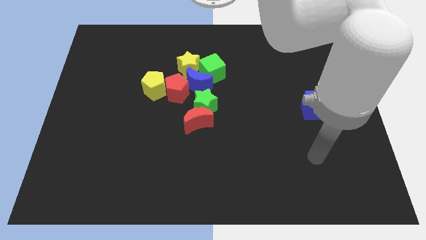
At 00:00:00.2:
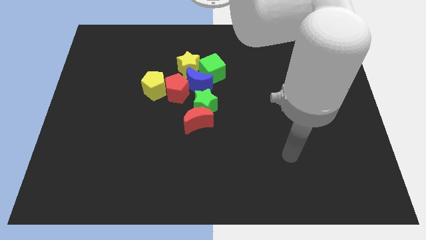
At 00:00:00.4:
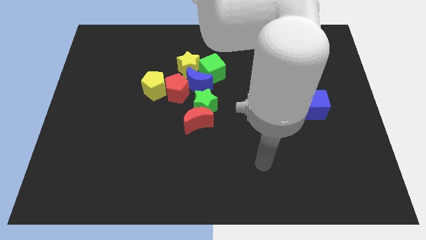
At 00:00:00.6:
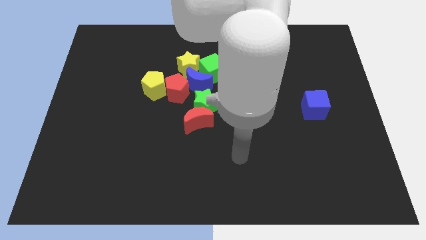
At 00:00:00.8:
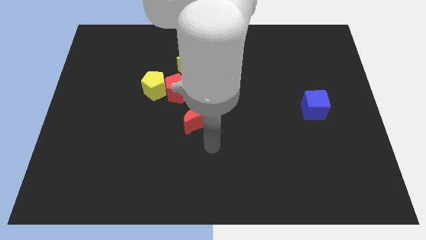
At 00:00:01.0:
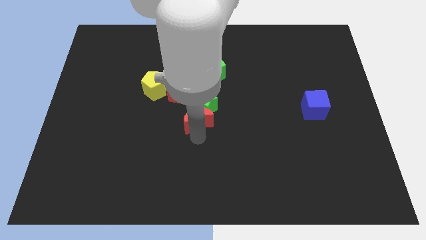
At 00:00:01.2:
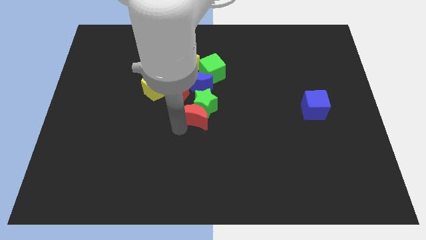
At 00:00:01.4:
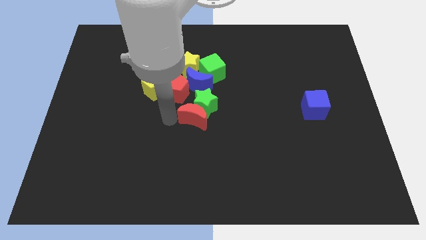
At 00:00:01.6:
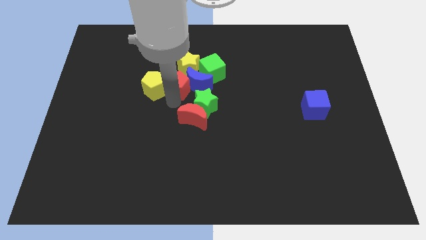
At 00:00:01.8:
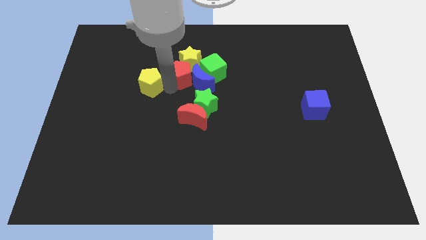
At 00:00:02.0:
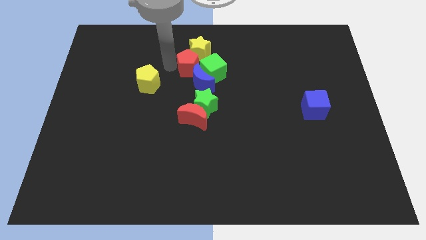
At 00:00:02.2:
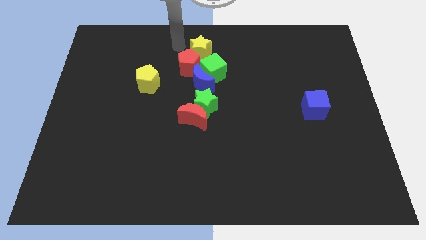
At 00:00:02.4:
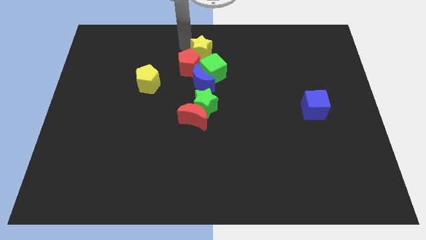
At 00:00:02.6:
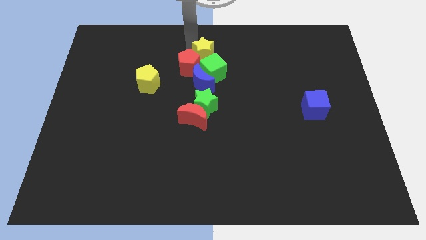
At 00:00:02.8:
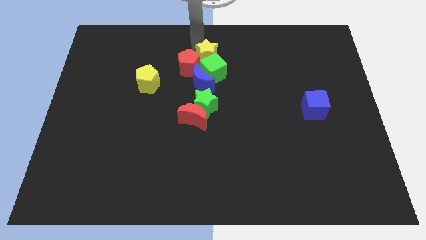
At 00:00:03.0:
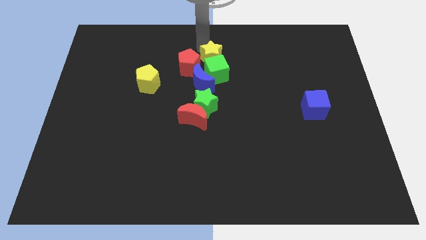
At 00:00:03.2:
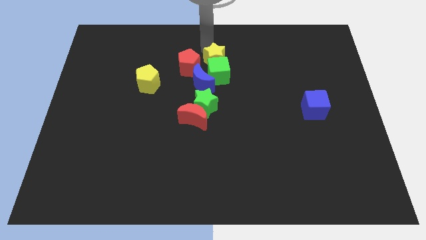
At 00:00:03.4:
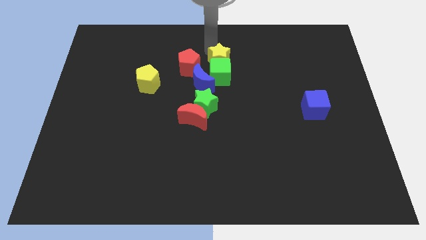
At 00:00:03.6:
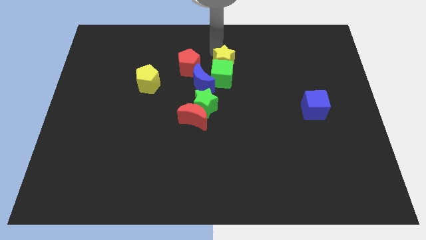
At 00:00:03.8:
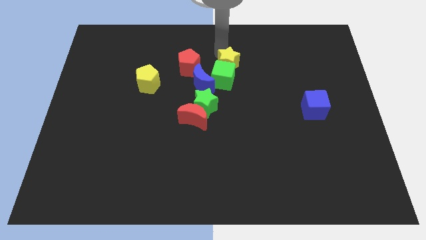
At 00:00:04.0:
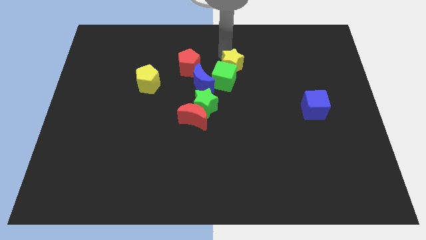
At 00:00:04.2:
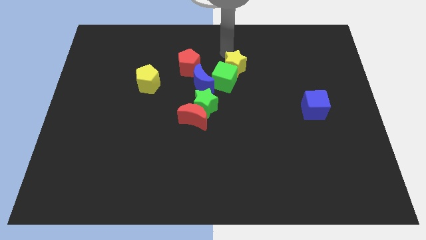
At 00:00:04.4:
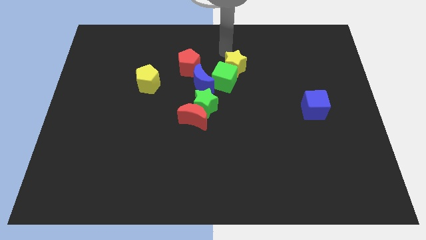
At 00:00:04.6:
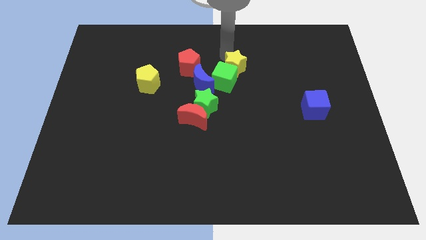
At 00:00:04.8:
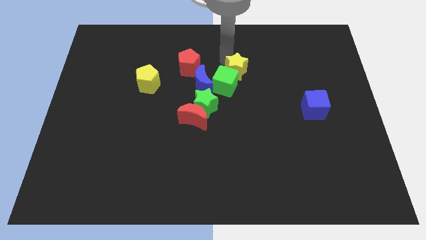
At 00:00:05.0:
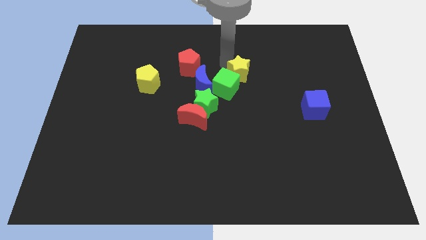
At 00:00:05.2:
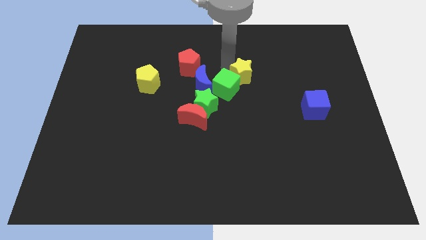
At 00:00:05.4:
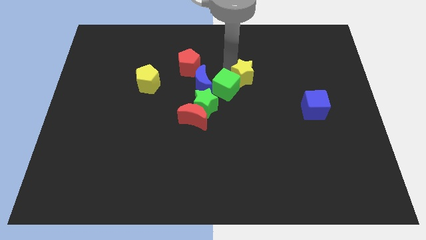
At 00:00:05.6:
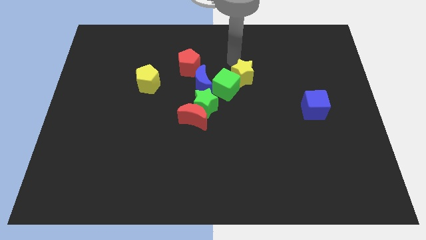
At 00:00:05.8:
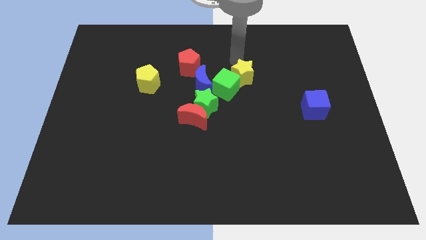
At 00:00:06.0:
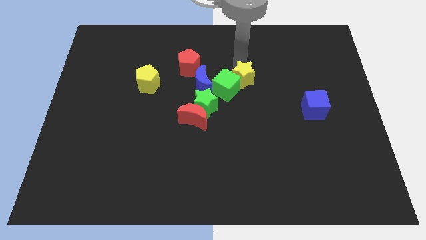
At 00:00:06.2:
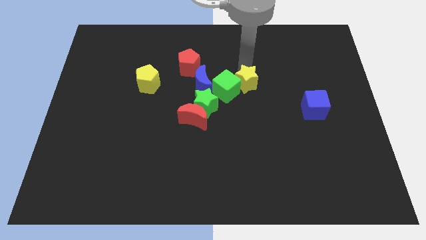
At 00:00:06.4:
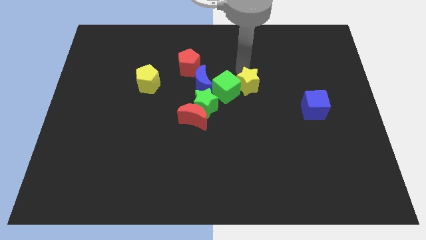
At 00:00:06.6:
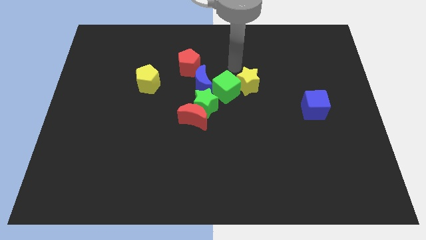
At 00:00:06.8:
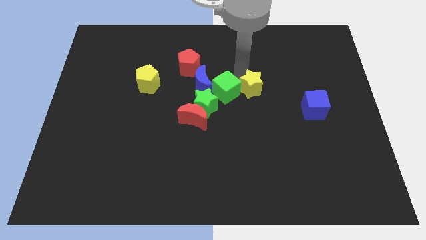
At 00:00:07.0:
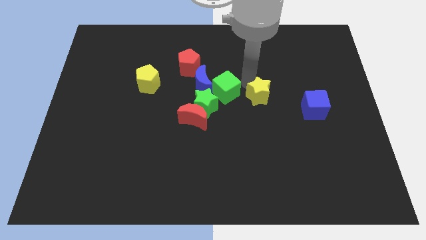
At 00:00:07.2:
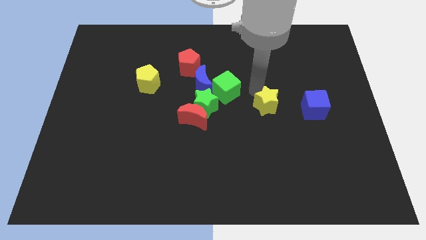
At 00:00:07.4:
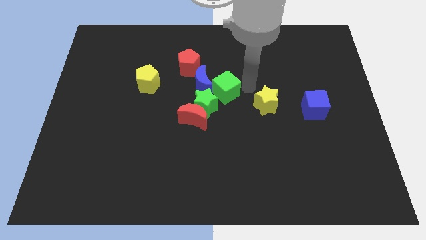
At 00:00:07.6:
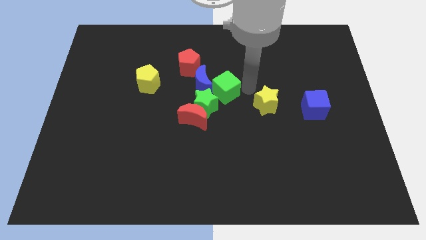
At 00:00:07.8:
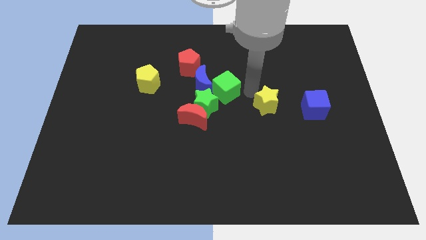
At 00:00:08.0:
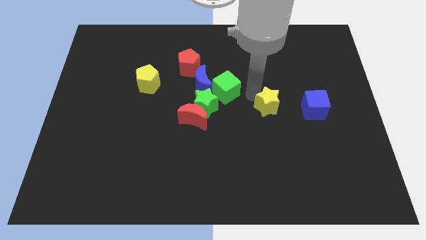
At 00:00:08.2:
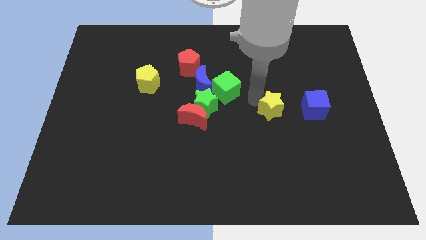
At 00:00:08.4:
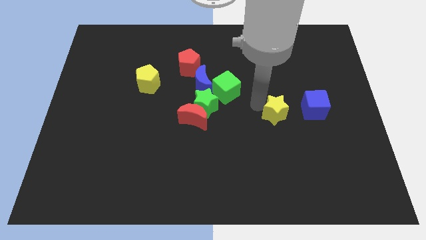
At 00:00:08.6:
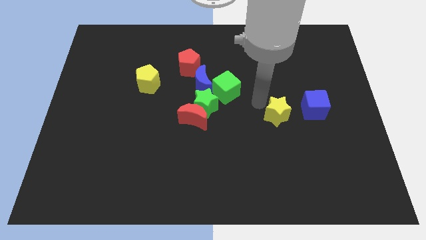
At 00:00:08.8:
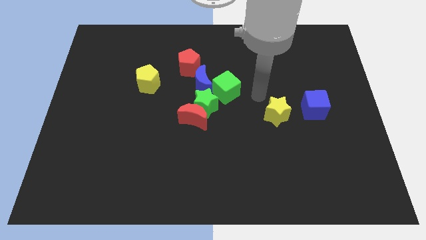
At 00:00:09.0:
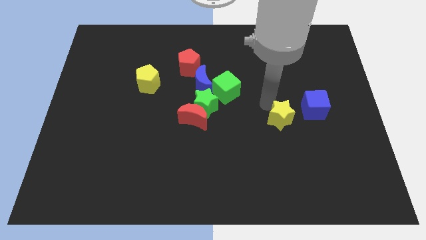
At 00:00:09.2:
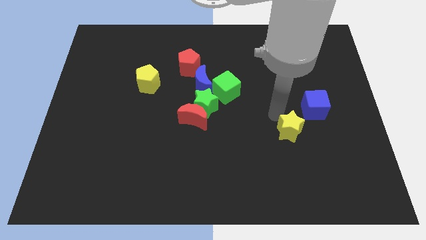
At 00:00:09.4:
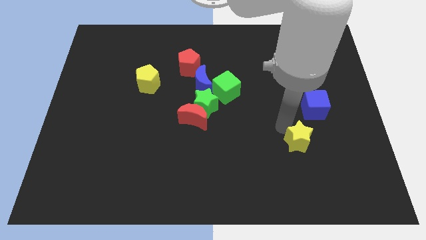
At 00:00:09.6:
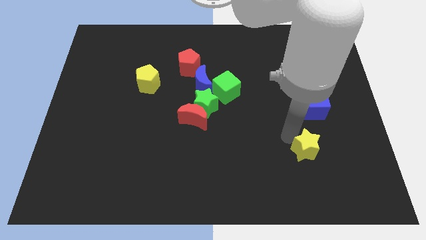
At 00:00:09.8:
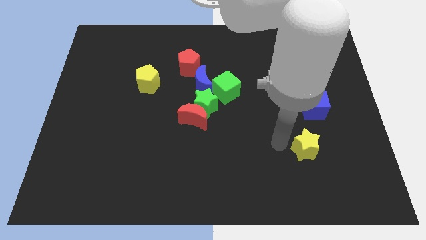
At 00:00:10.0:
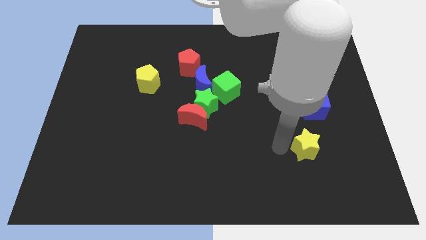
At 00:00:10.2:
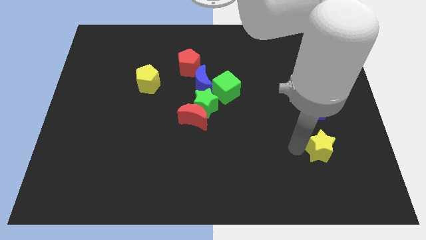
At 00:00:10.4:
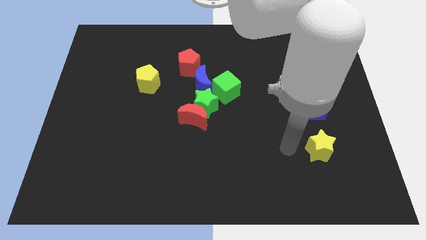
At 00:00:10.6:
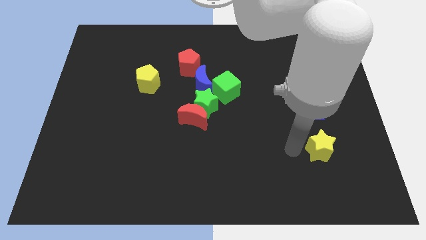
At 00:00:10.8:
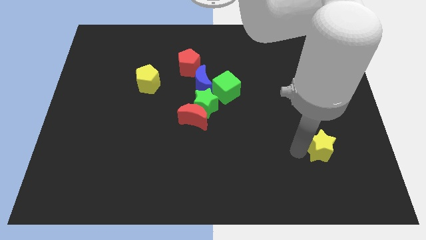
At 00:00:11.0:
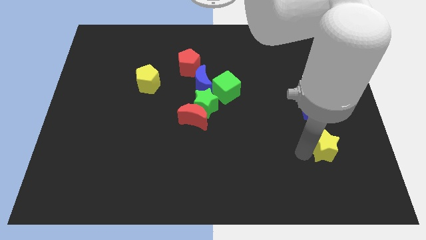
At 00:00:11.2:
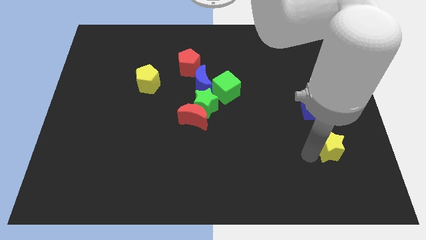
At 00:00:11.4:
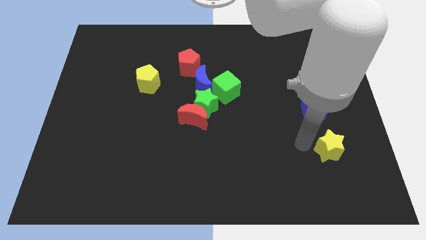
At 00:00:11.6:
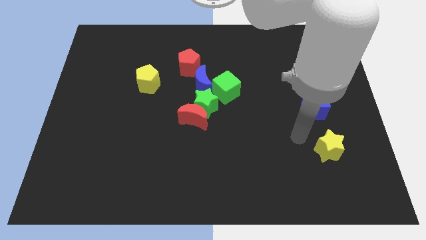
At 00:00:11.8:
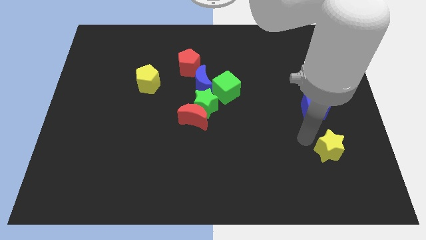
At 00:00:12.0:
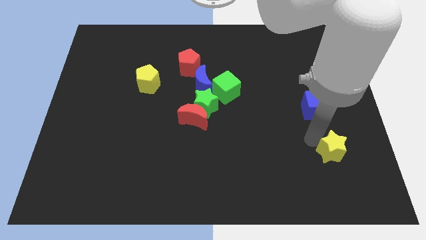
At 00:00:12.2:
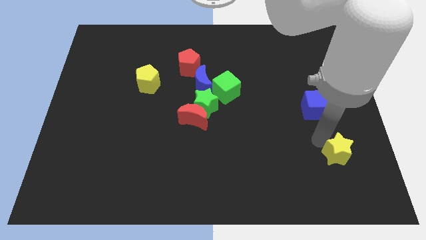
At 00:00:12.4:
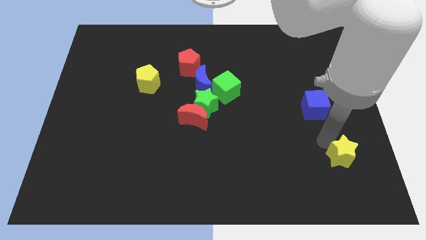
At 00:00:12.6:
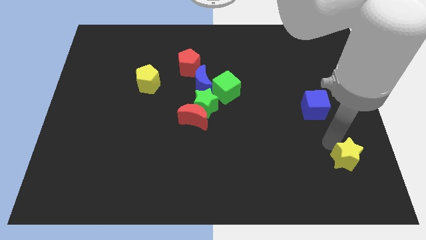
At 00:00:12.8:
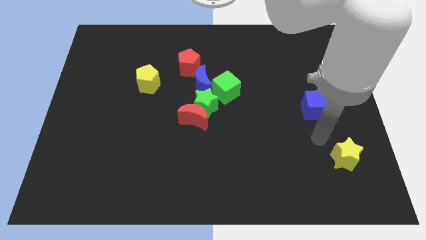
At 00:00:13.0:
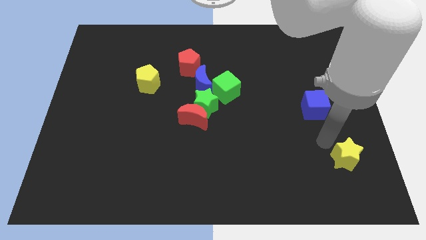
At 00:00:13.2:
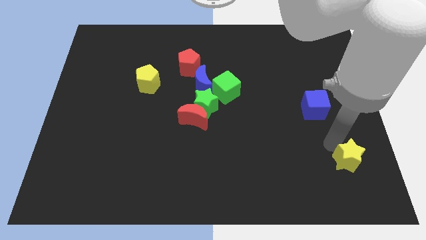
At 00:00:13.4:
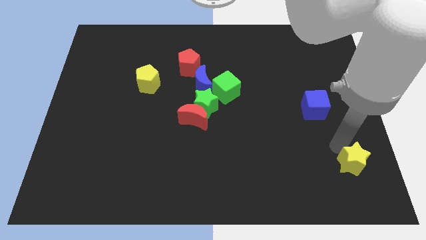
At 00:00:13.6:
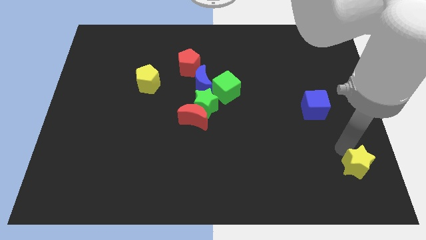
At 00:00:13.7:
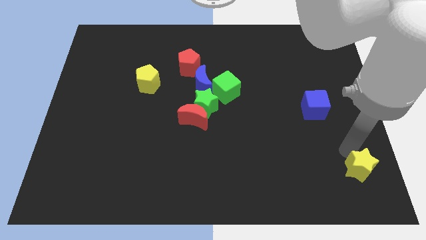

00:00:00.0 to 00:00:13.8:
slide the yellow star to the bottom right corner
